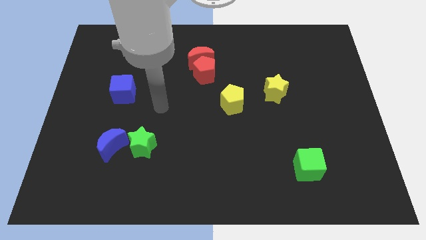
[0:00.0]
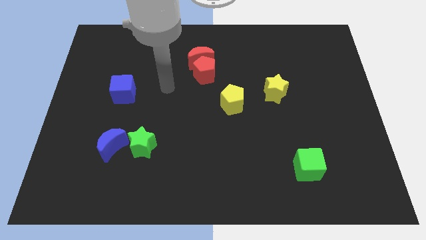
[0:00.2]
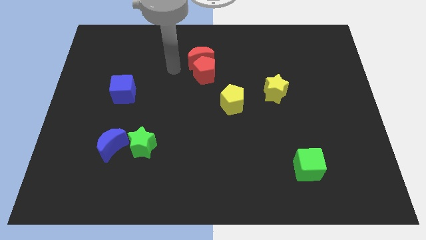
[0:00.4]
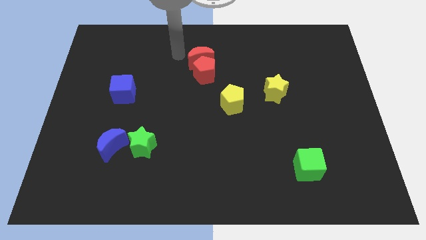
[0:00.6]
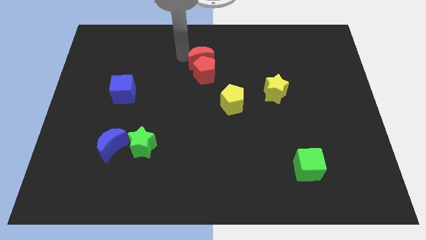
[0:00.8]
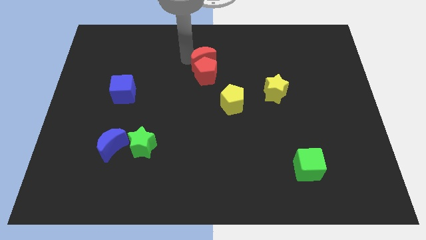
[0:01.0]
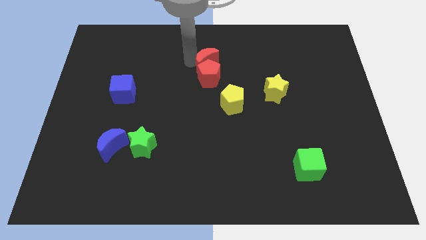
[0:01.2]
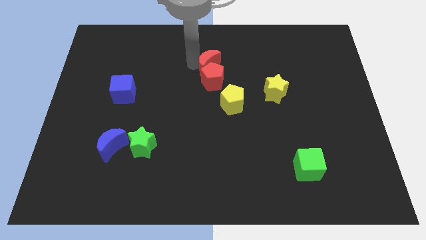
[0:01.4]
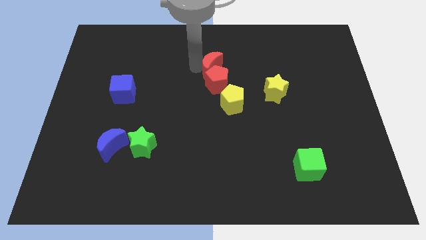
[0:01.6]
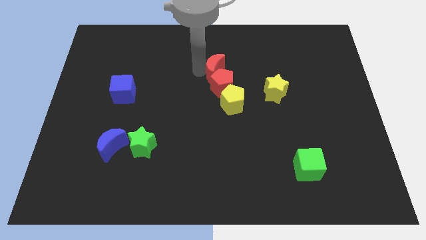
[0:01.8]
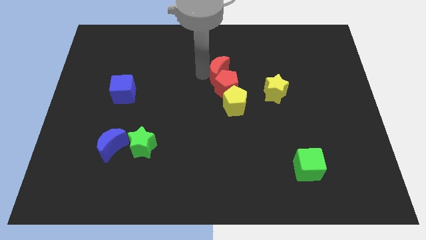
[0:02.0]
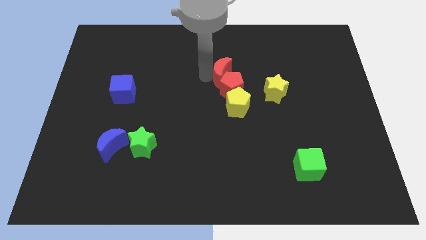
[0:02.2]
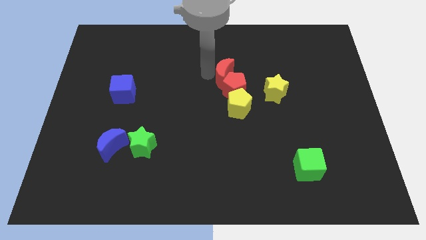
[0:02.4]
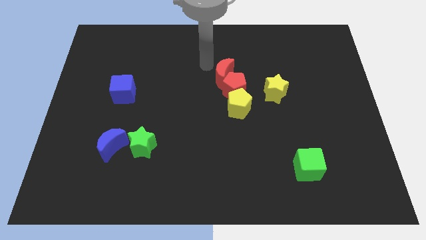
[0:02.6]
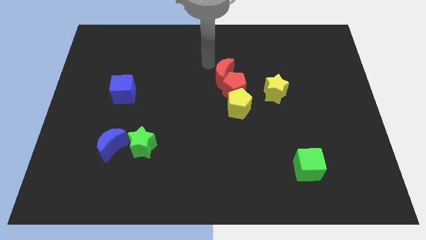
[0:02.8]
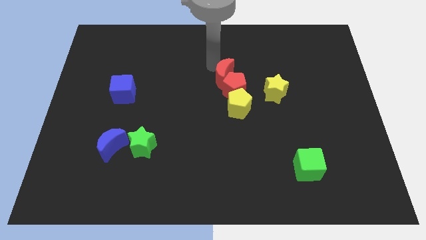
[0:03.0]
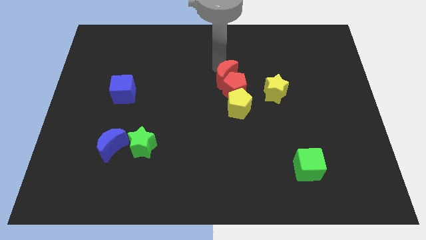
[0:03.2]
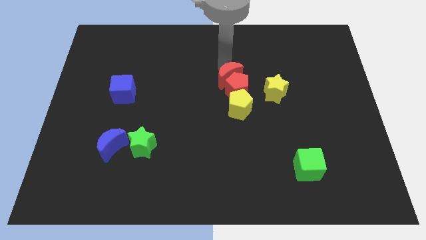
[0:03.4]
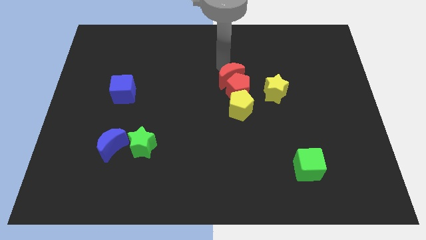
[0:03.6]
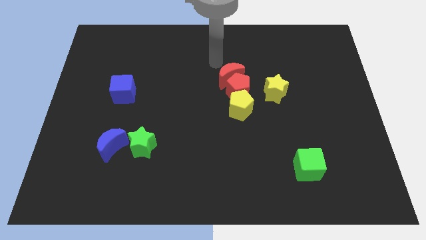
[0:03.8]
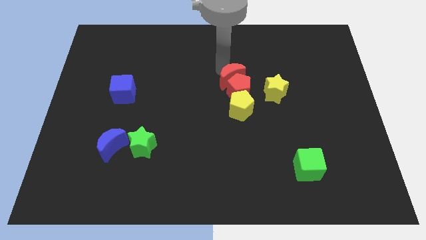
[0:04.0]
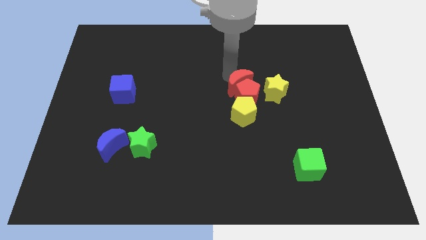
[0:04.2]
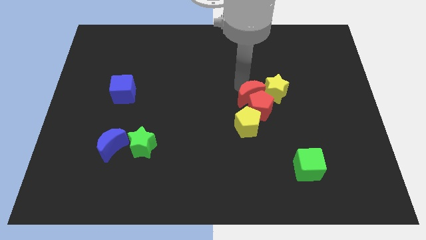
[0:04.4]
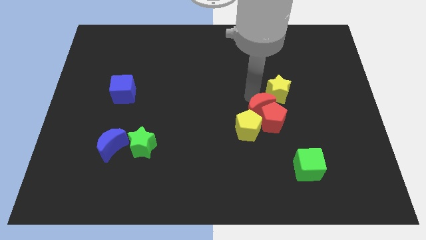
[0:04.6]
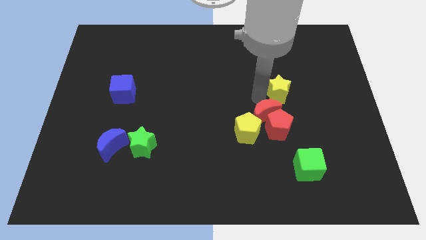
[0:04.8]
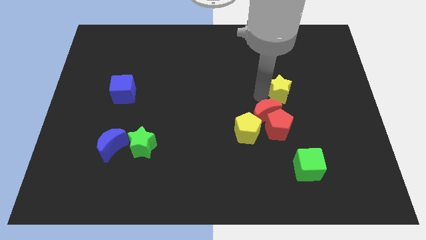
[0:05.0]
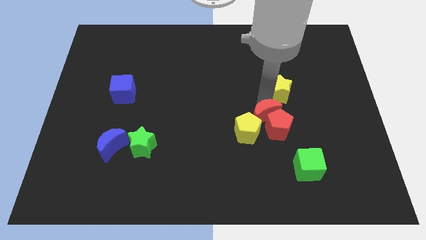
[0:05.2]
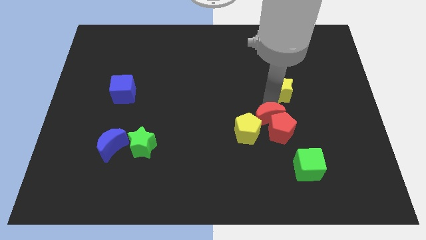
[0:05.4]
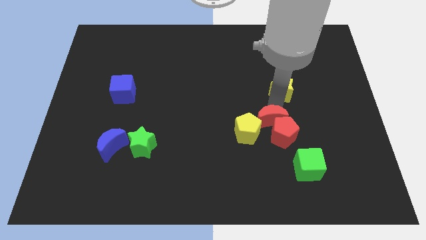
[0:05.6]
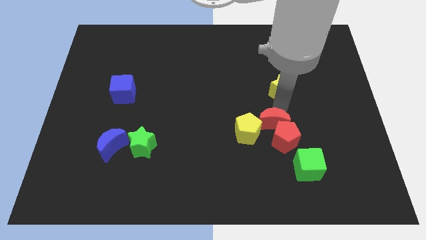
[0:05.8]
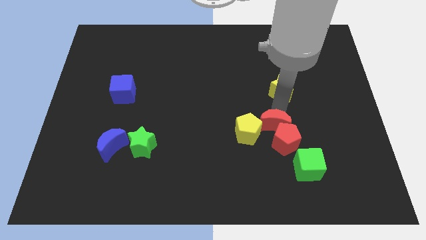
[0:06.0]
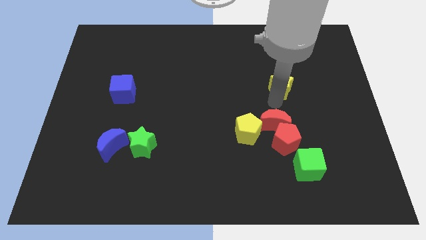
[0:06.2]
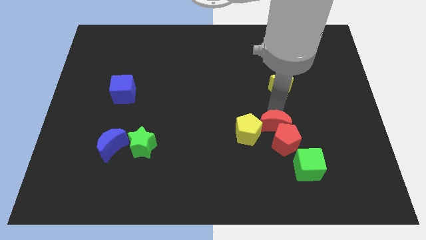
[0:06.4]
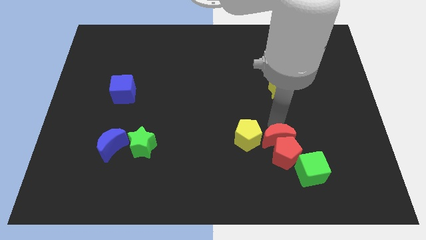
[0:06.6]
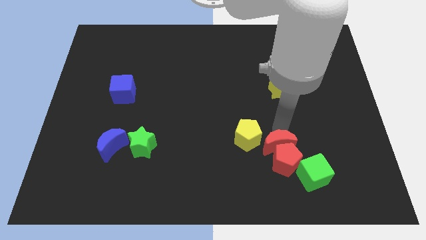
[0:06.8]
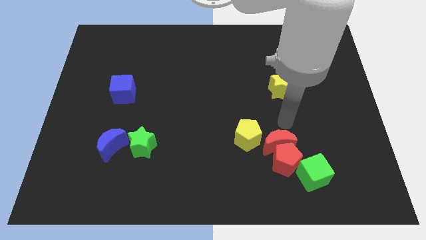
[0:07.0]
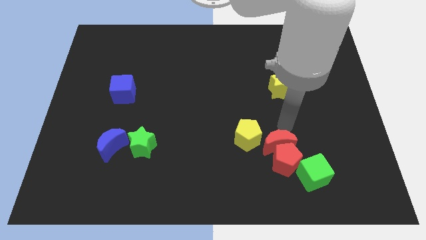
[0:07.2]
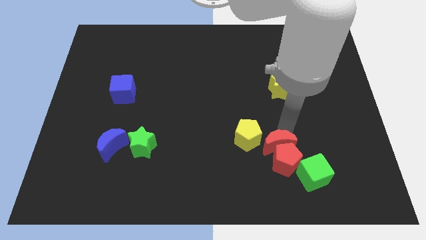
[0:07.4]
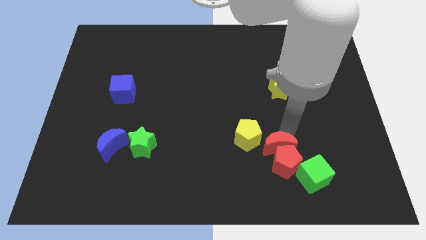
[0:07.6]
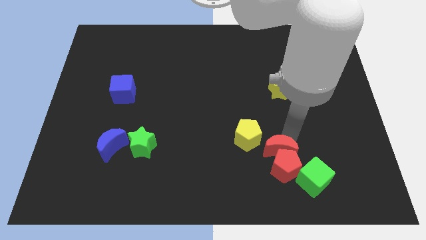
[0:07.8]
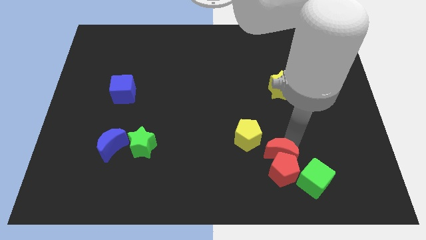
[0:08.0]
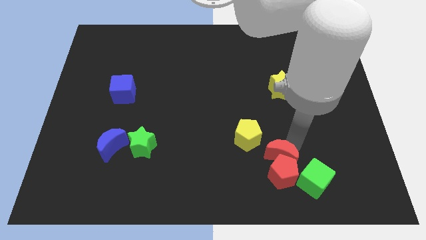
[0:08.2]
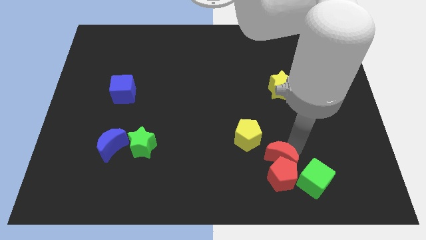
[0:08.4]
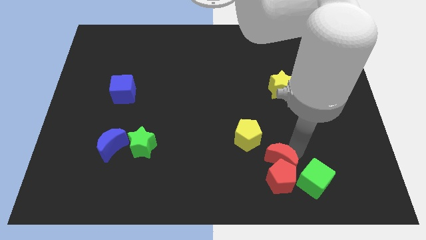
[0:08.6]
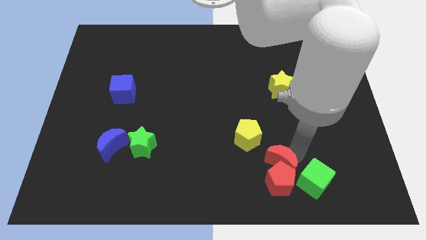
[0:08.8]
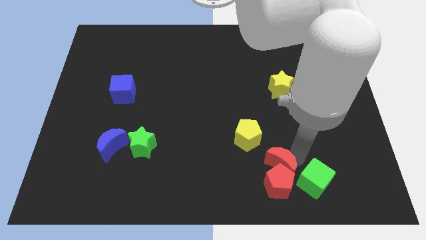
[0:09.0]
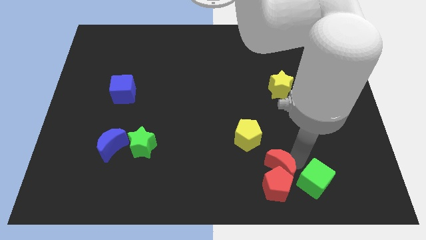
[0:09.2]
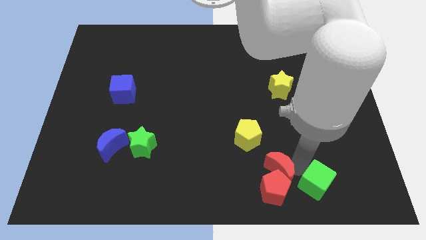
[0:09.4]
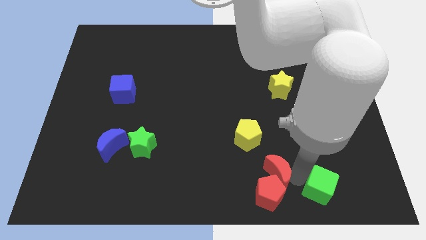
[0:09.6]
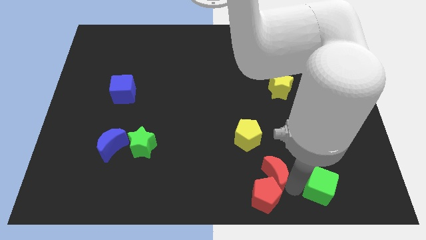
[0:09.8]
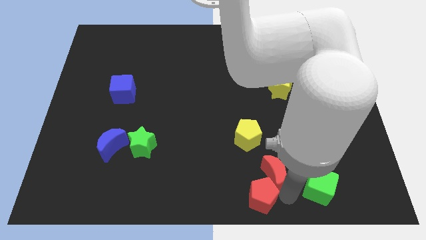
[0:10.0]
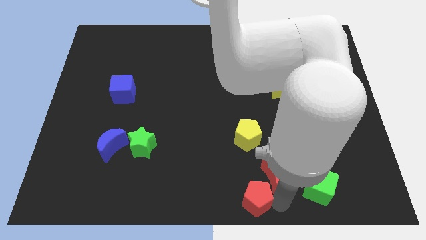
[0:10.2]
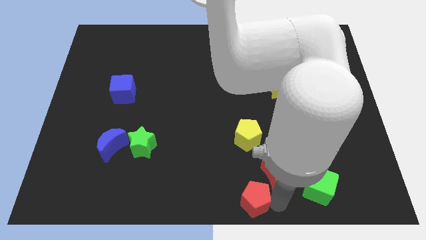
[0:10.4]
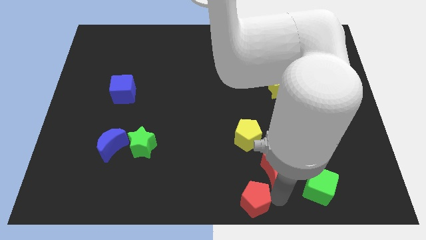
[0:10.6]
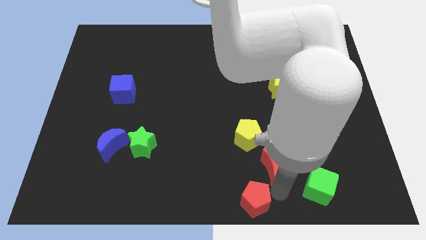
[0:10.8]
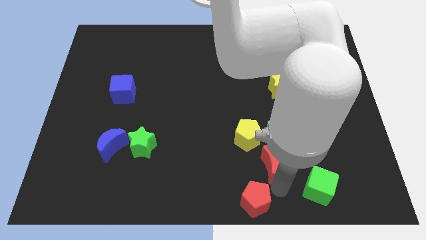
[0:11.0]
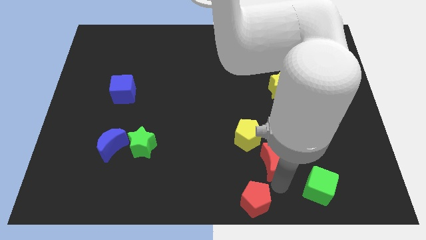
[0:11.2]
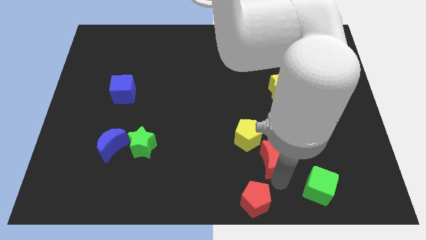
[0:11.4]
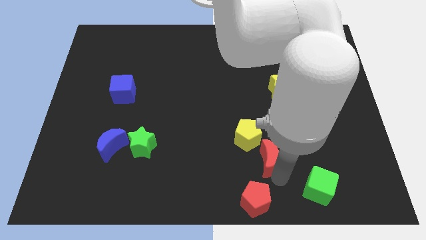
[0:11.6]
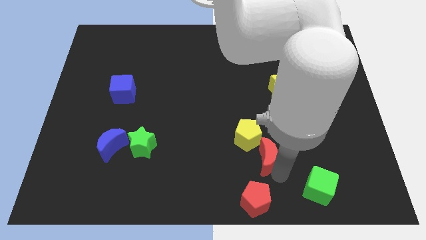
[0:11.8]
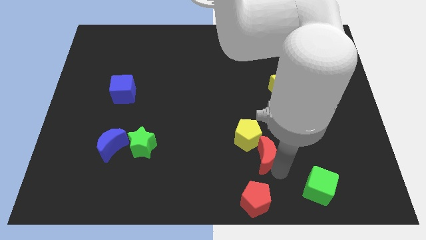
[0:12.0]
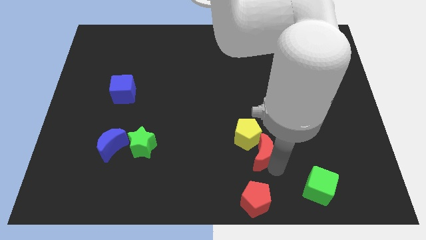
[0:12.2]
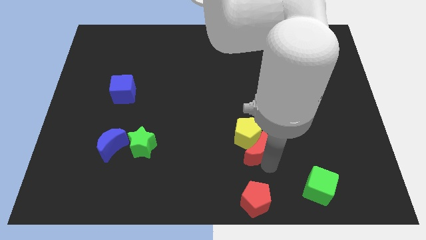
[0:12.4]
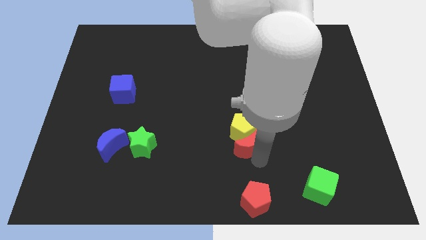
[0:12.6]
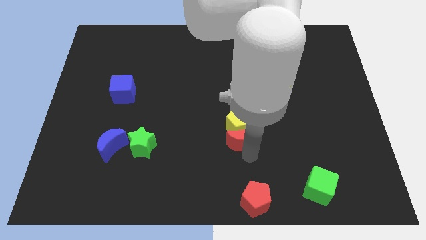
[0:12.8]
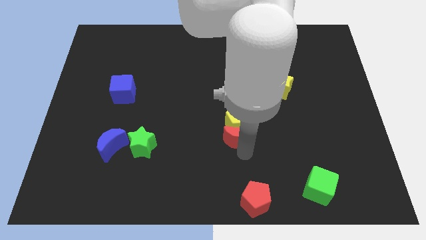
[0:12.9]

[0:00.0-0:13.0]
move the red moon to the bottom right of the yellow pentagon
